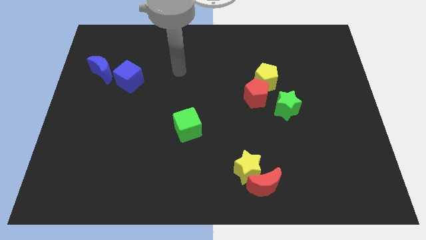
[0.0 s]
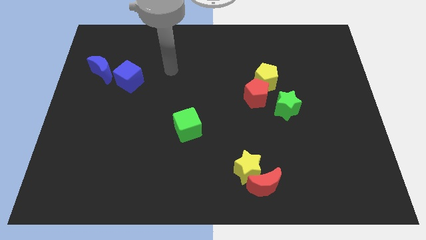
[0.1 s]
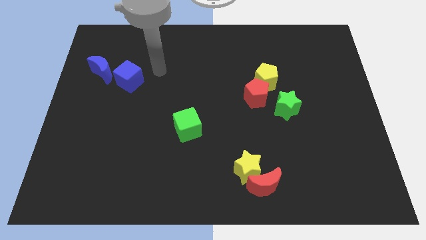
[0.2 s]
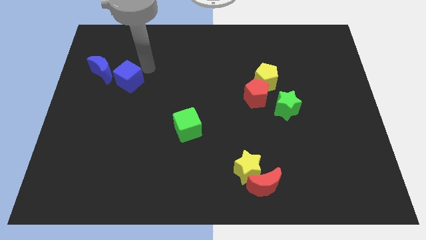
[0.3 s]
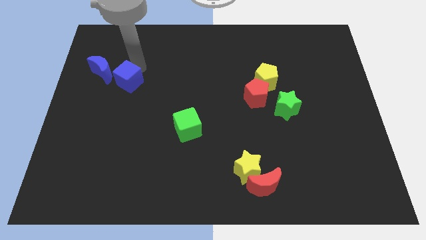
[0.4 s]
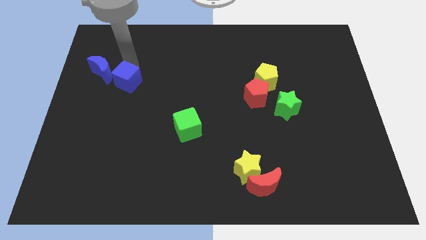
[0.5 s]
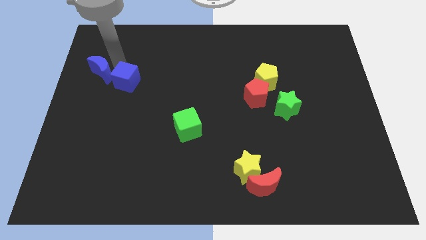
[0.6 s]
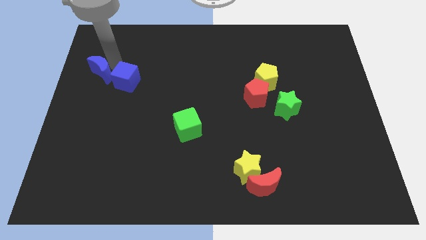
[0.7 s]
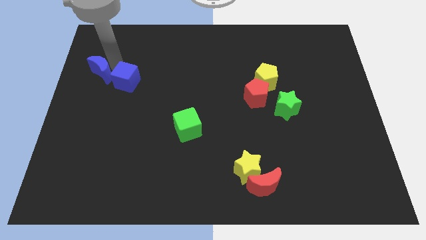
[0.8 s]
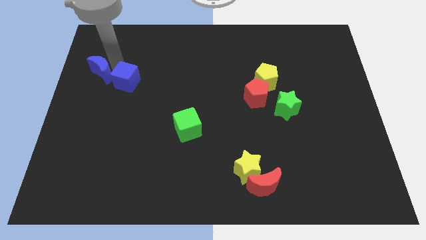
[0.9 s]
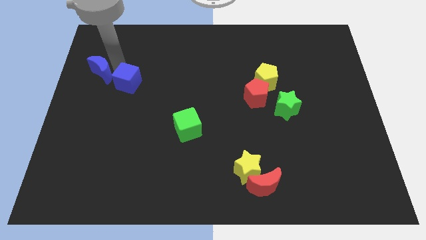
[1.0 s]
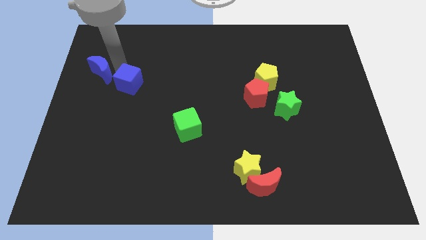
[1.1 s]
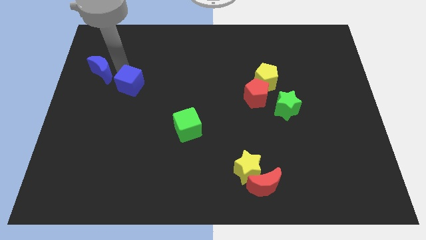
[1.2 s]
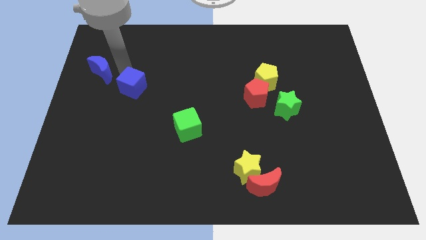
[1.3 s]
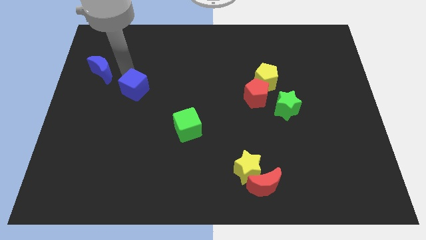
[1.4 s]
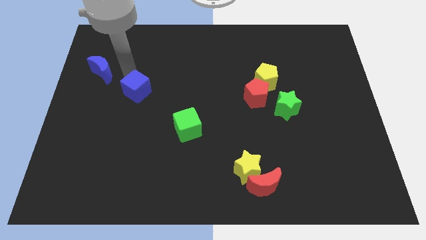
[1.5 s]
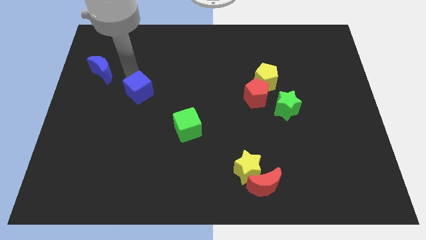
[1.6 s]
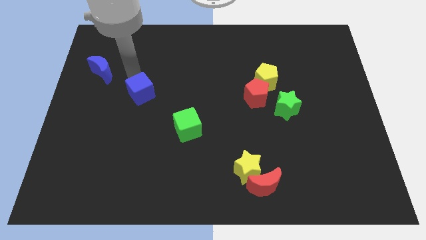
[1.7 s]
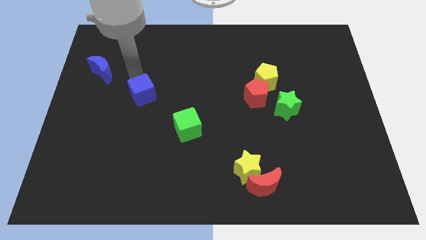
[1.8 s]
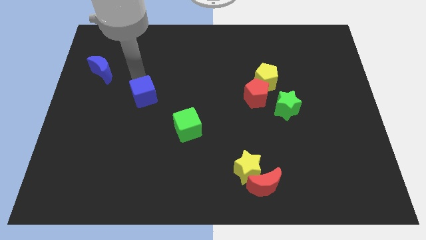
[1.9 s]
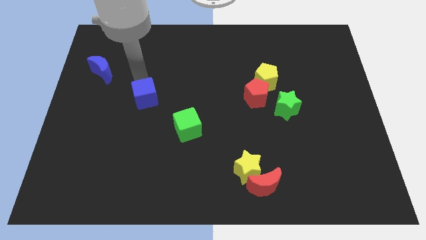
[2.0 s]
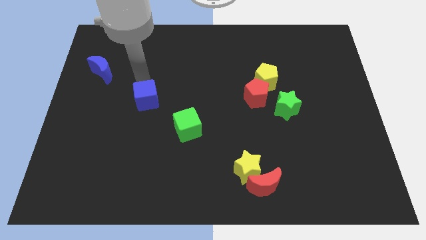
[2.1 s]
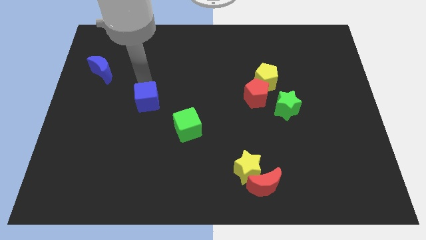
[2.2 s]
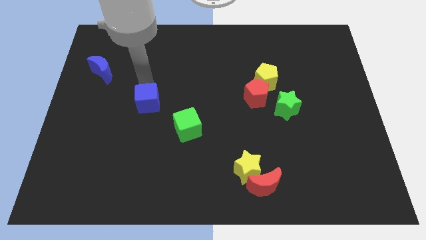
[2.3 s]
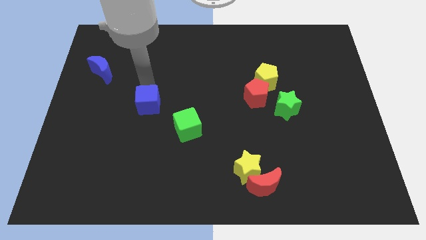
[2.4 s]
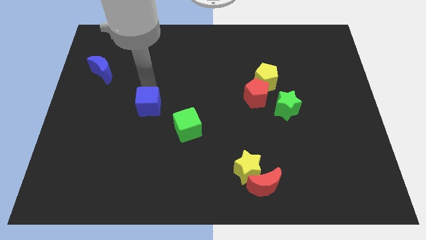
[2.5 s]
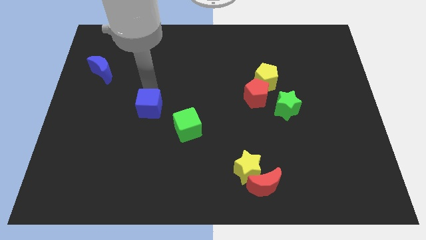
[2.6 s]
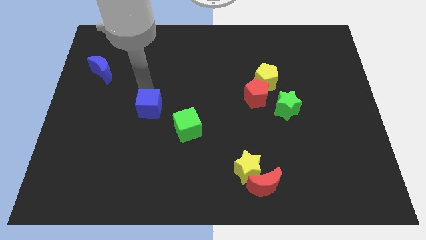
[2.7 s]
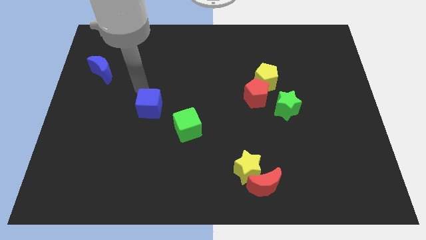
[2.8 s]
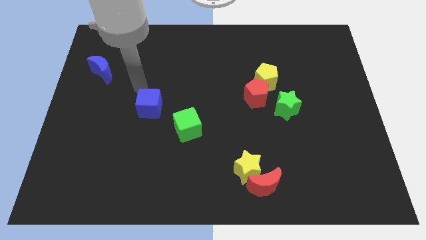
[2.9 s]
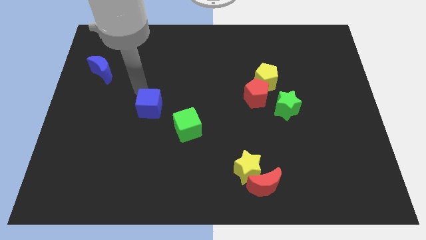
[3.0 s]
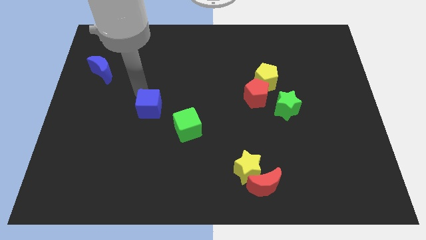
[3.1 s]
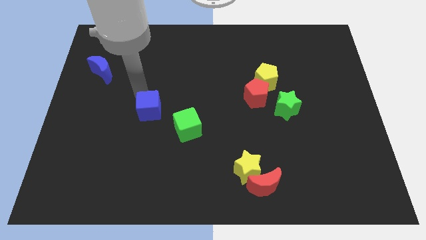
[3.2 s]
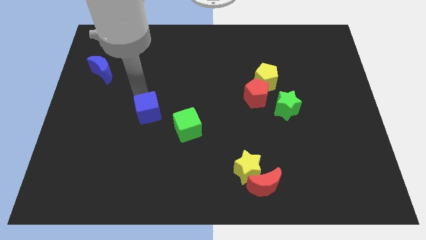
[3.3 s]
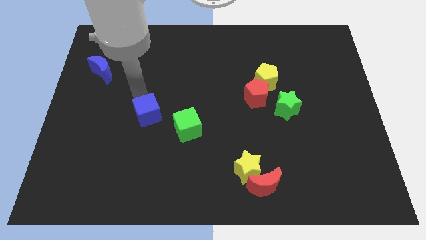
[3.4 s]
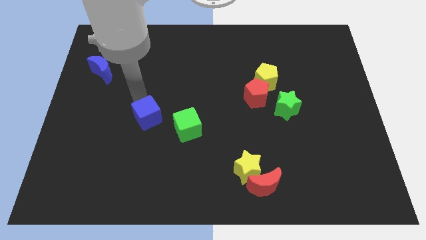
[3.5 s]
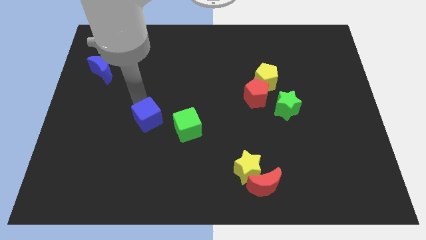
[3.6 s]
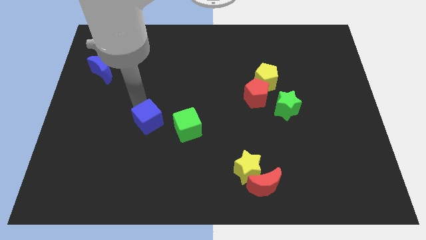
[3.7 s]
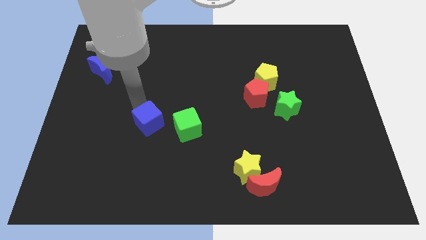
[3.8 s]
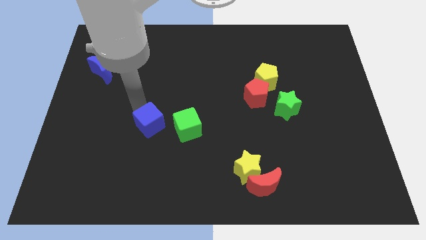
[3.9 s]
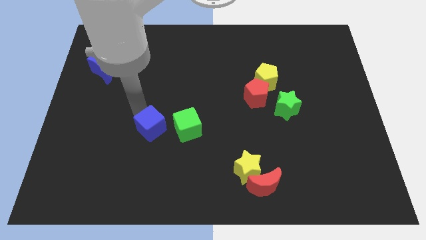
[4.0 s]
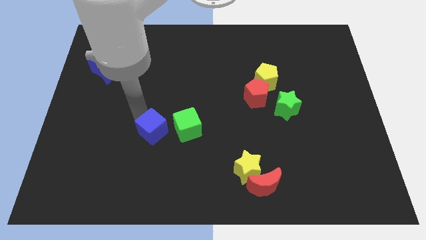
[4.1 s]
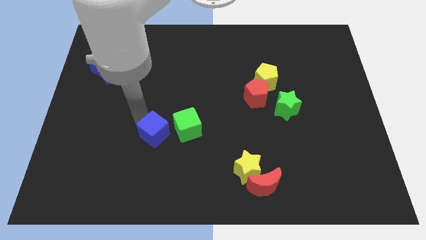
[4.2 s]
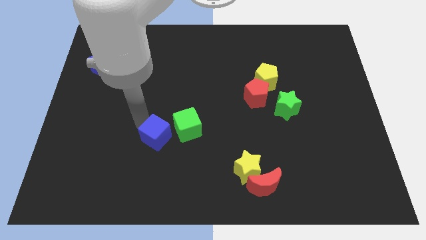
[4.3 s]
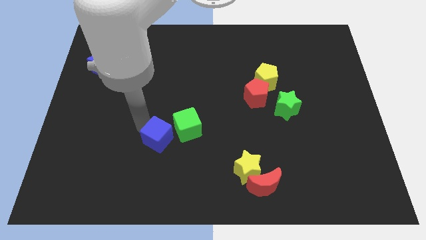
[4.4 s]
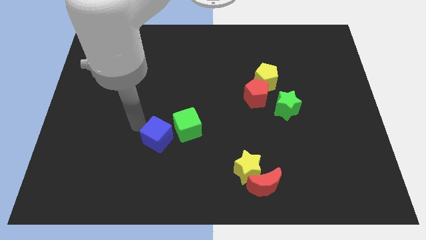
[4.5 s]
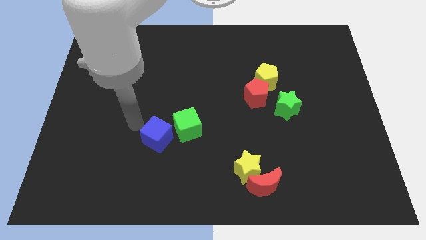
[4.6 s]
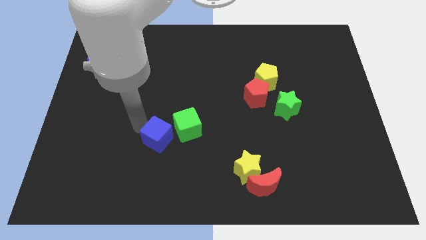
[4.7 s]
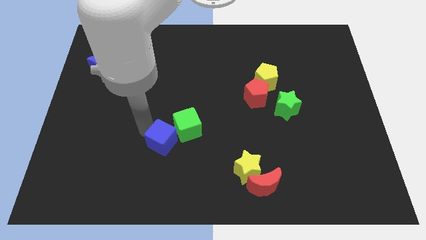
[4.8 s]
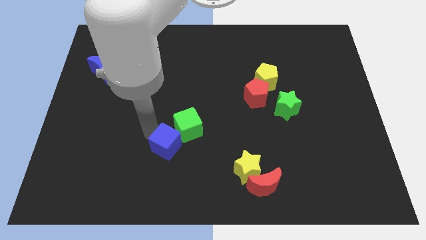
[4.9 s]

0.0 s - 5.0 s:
slide the blue cube diagonally downwards and right

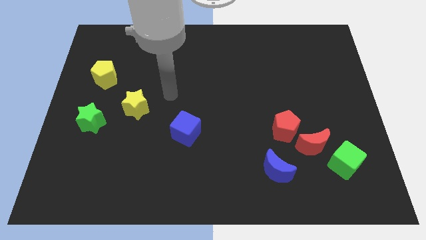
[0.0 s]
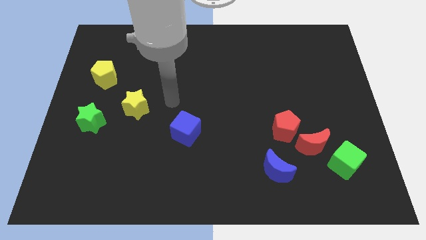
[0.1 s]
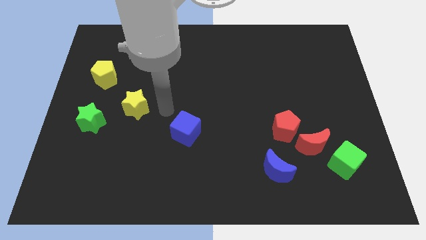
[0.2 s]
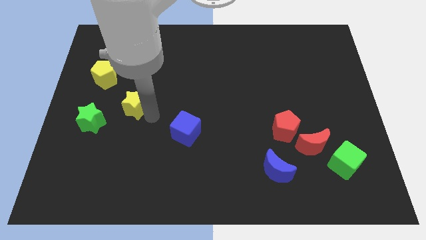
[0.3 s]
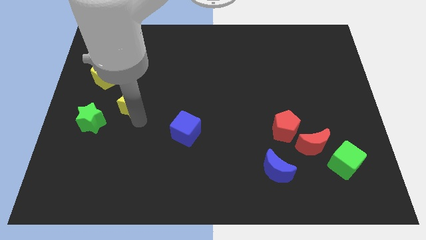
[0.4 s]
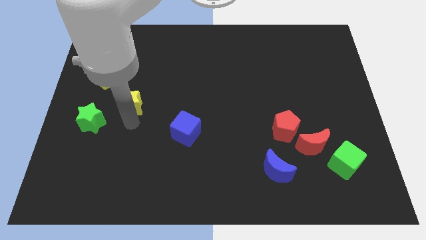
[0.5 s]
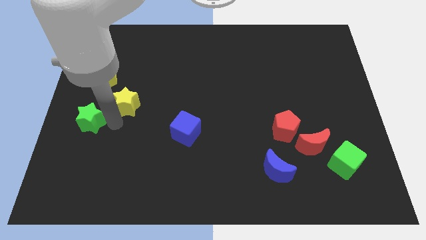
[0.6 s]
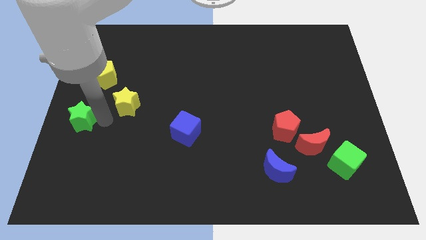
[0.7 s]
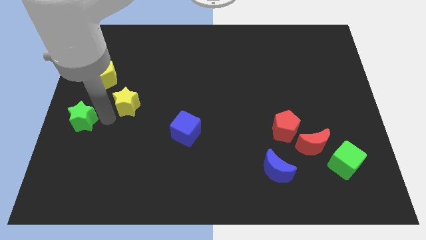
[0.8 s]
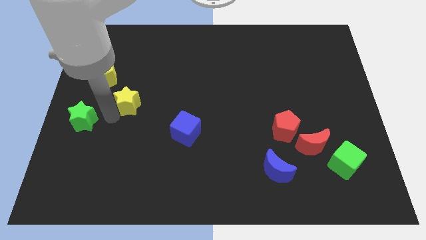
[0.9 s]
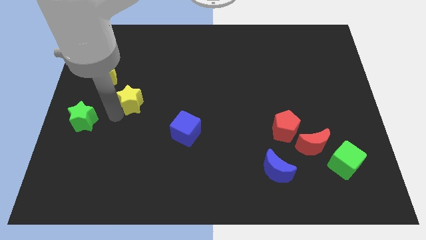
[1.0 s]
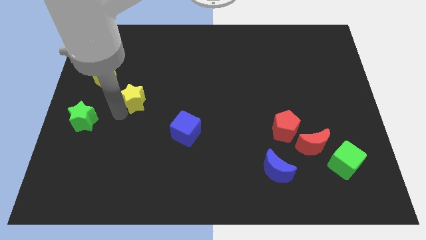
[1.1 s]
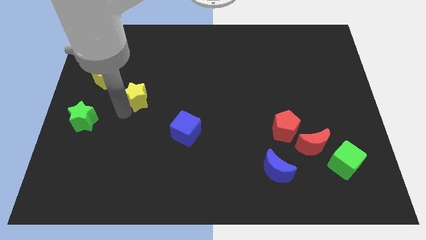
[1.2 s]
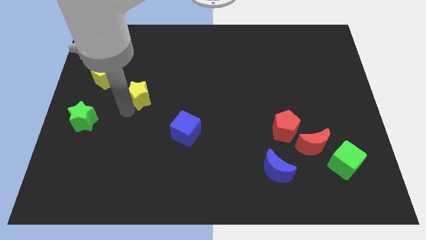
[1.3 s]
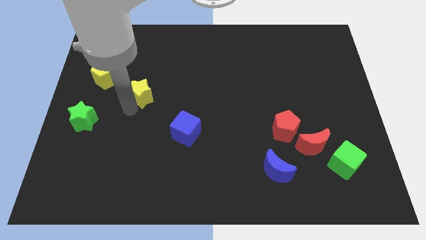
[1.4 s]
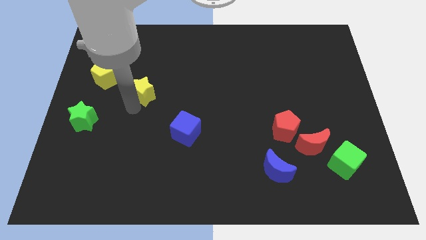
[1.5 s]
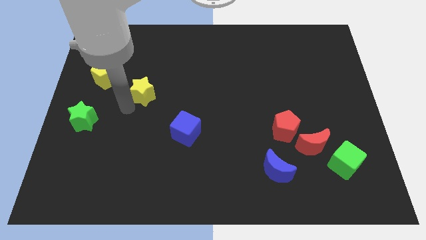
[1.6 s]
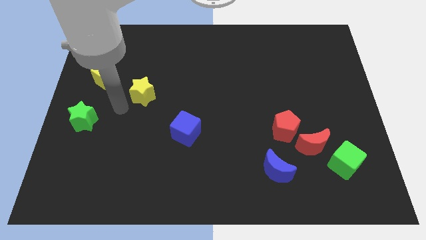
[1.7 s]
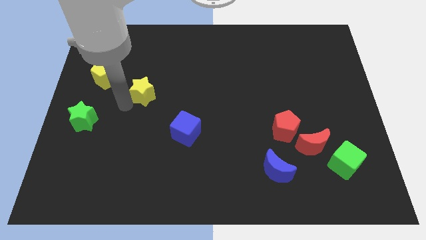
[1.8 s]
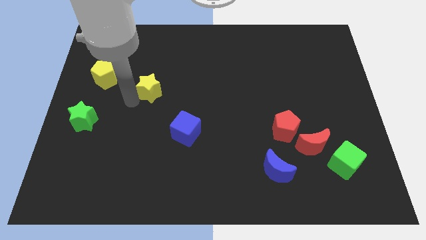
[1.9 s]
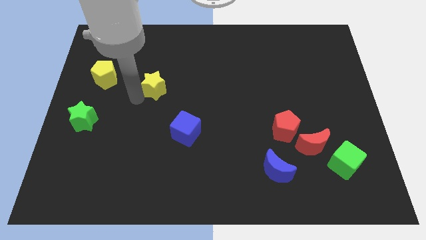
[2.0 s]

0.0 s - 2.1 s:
slightly move the yellow star upwards and to the right diagonally

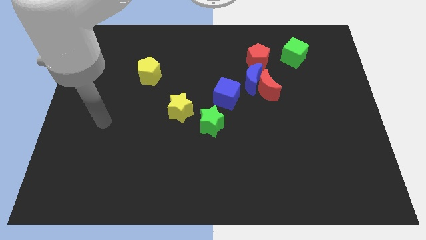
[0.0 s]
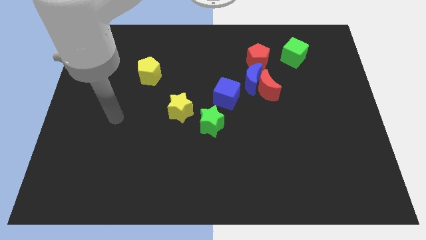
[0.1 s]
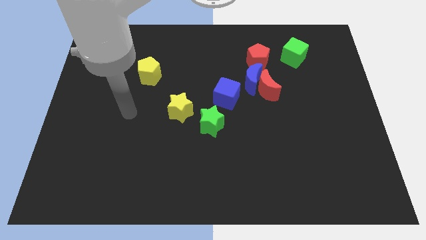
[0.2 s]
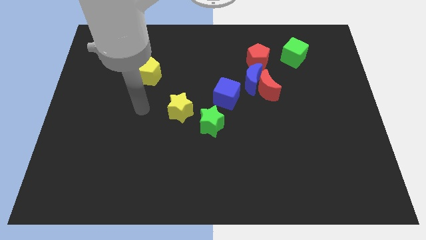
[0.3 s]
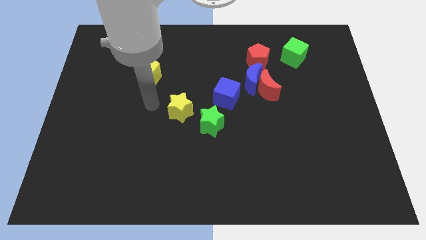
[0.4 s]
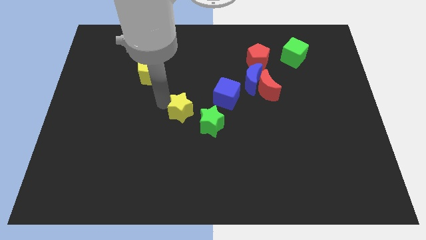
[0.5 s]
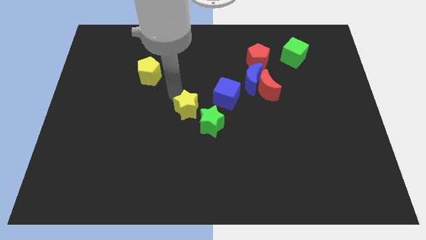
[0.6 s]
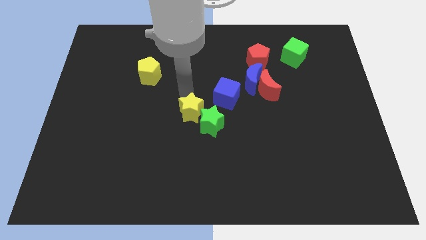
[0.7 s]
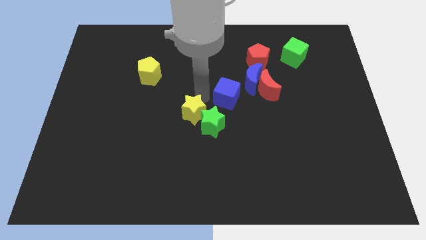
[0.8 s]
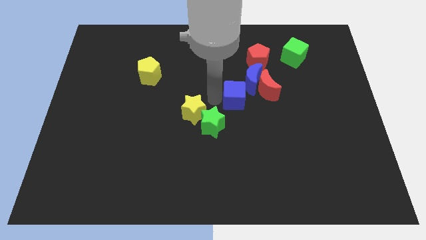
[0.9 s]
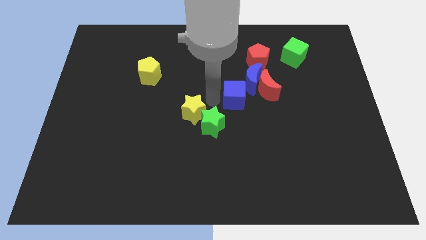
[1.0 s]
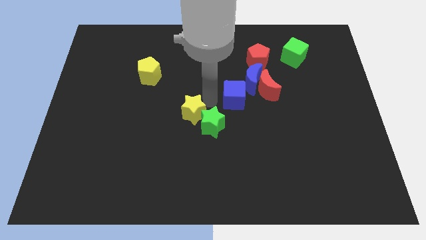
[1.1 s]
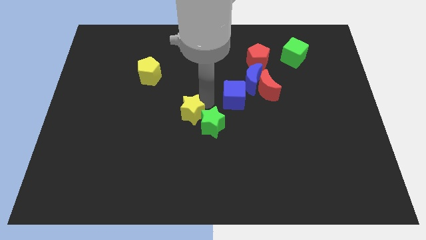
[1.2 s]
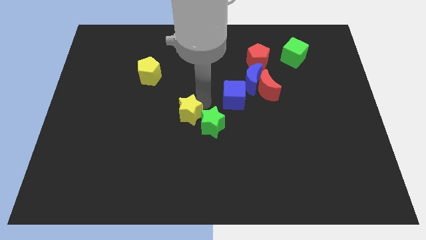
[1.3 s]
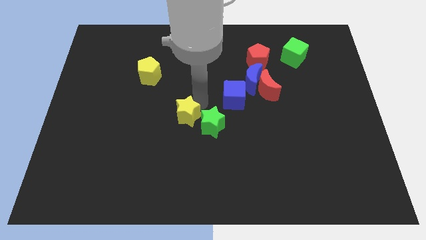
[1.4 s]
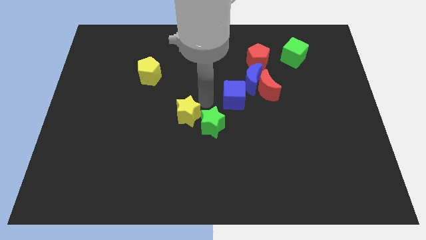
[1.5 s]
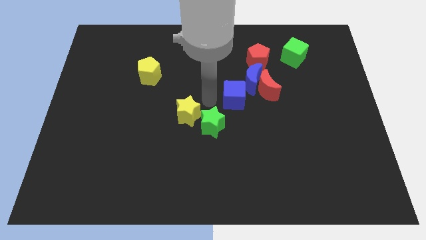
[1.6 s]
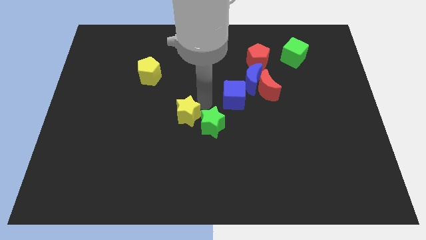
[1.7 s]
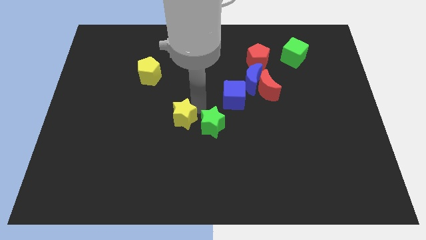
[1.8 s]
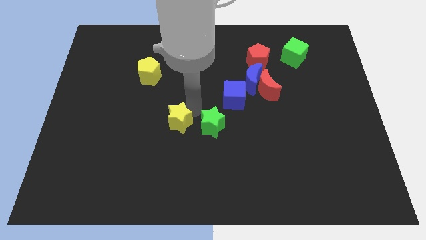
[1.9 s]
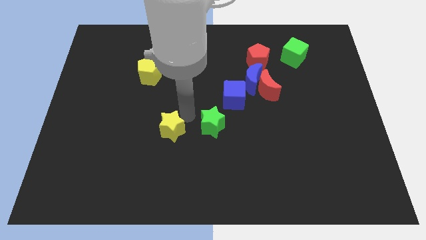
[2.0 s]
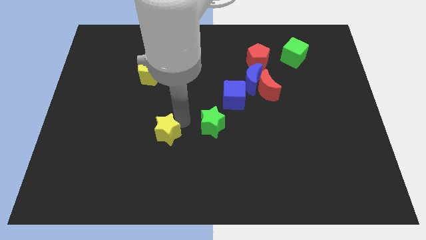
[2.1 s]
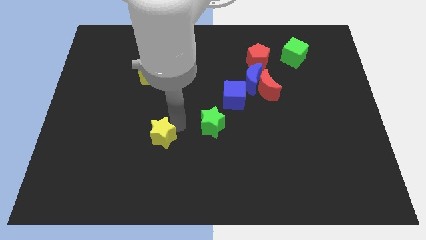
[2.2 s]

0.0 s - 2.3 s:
slightly slide the yellow star downwards and then left
